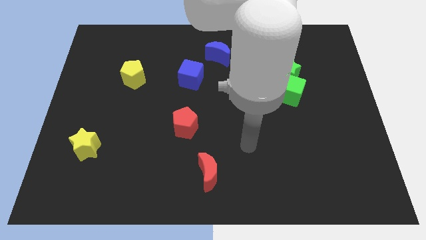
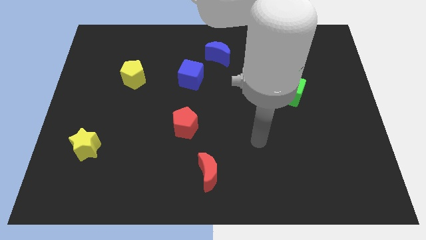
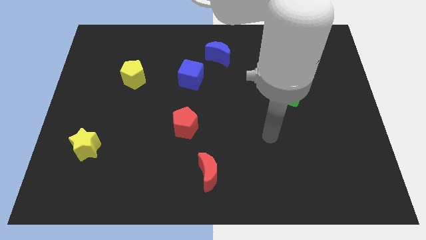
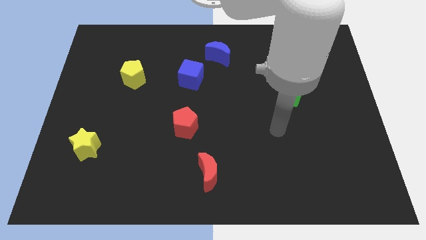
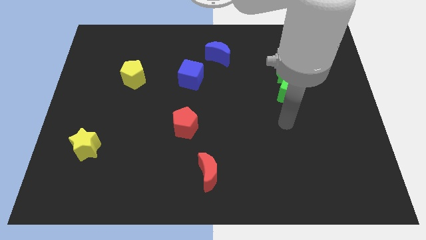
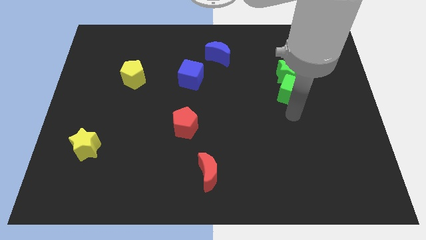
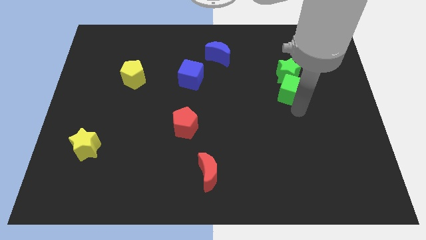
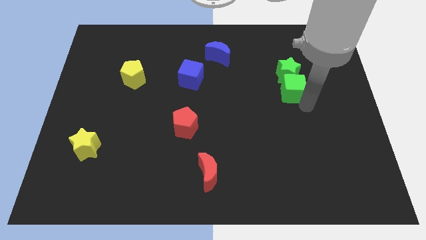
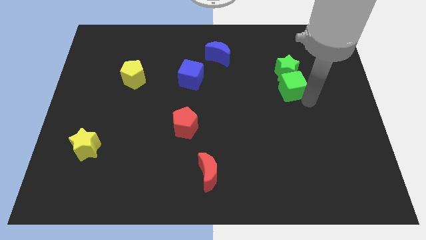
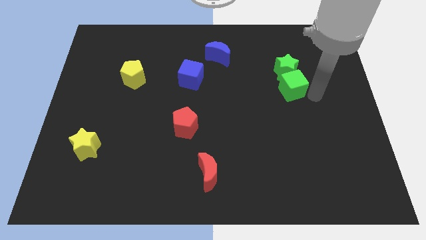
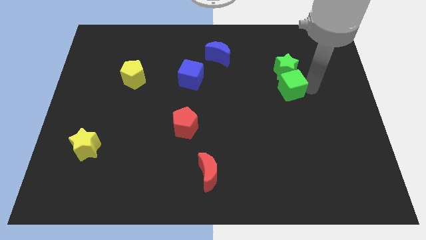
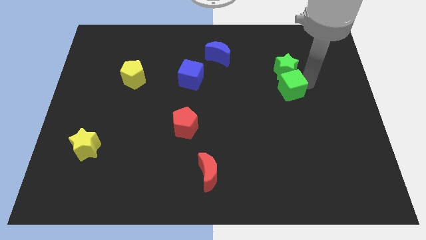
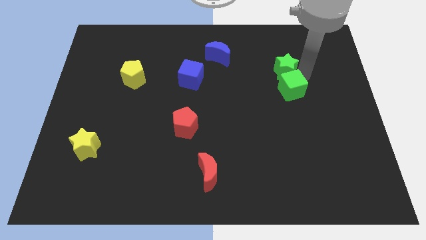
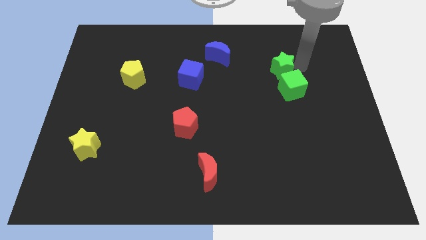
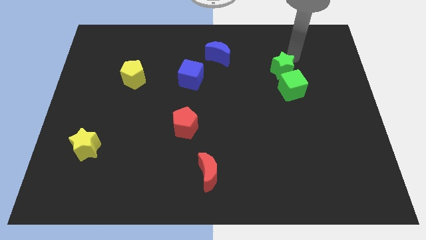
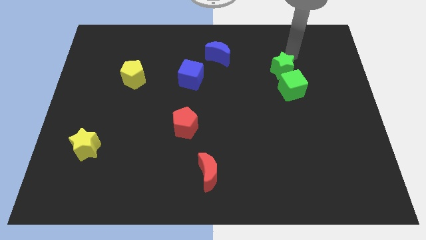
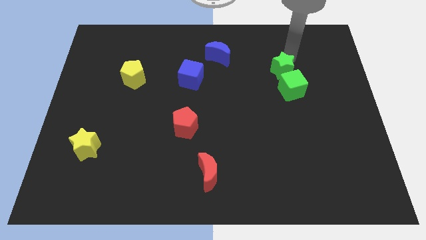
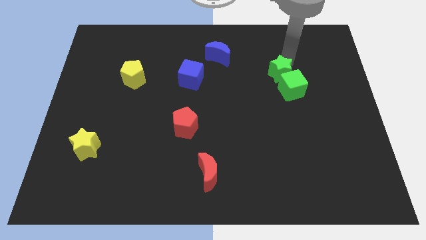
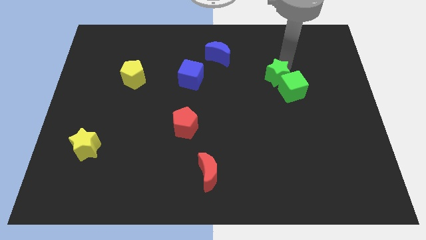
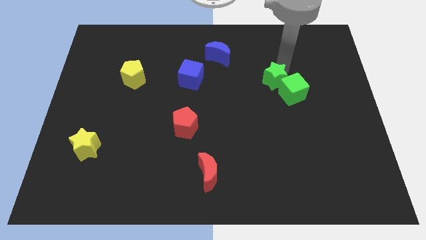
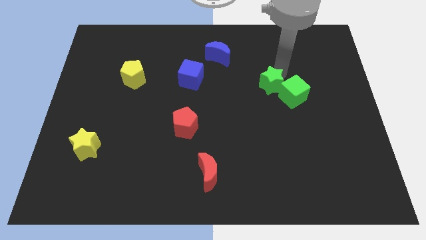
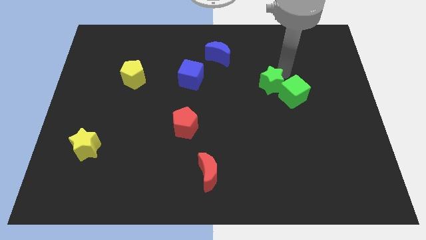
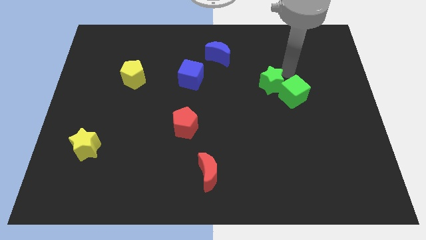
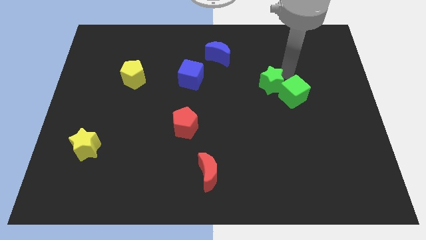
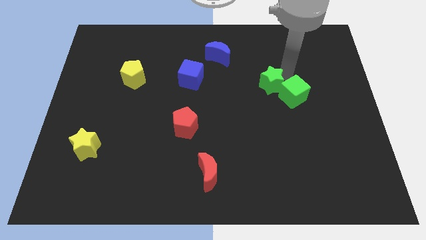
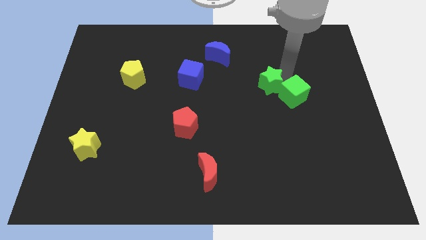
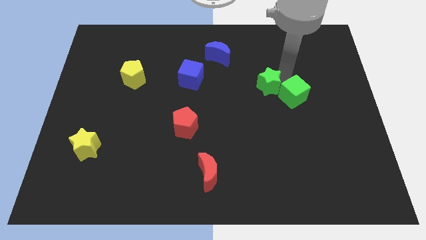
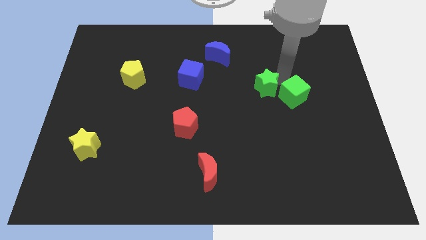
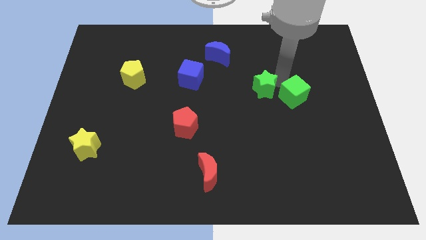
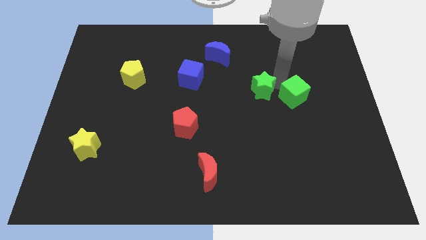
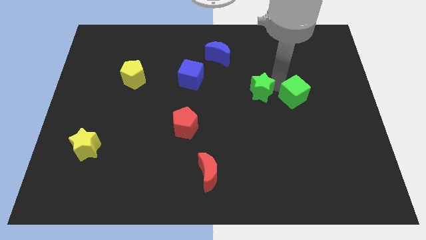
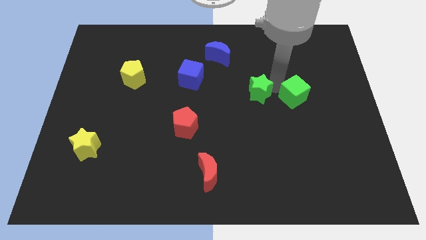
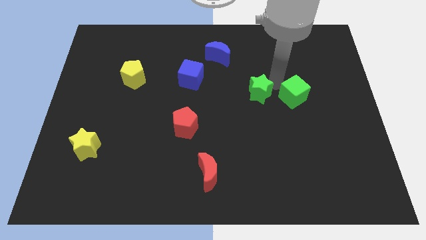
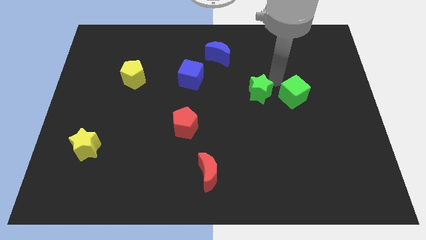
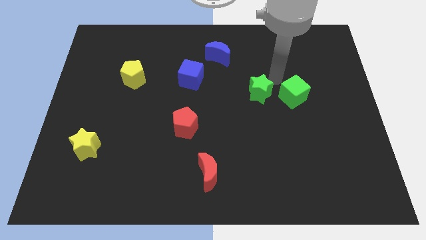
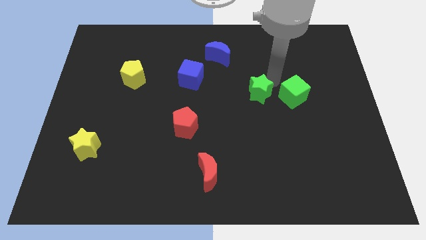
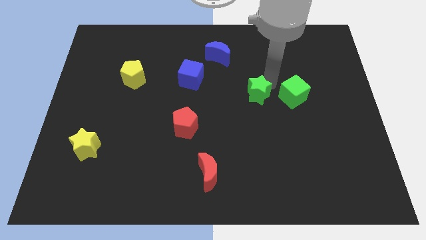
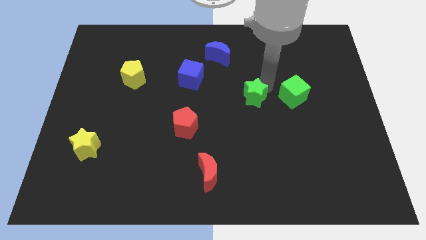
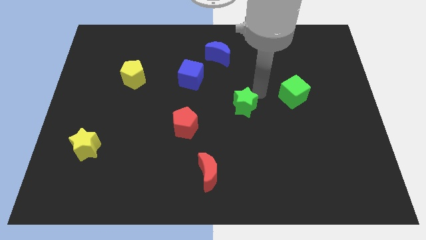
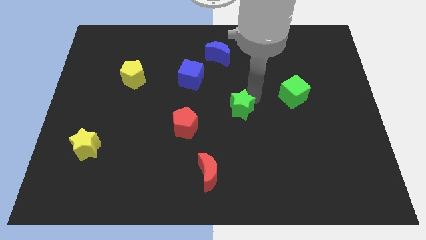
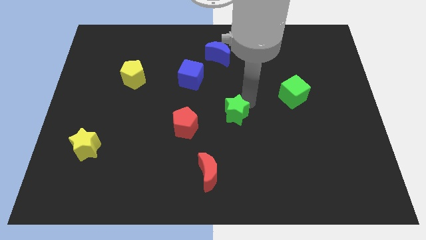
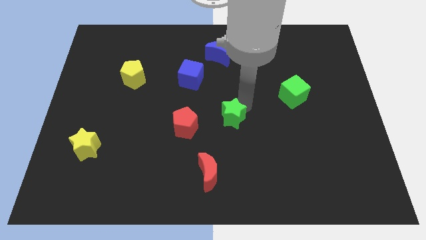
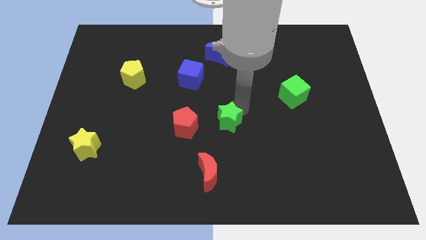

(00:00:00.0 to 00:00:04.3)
move the green star down and to the left diagonally

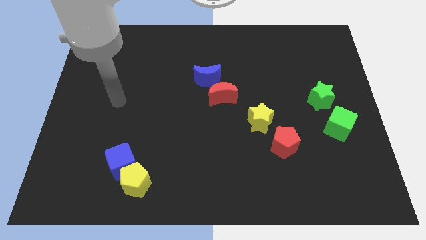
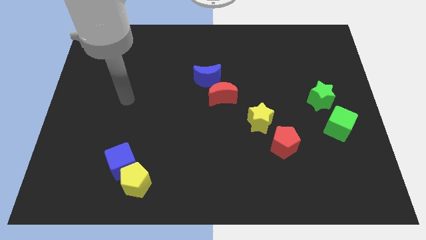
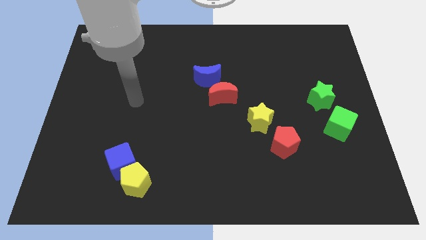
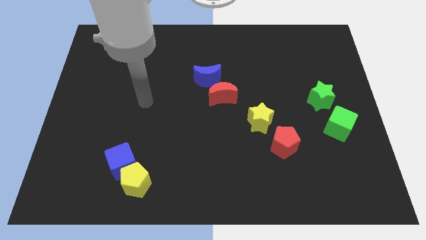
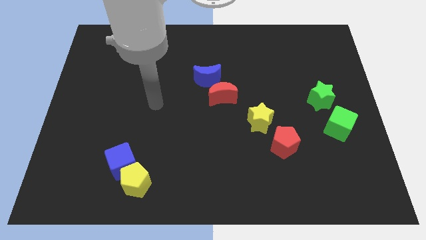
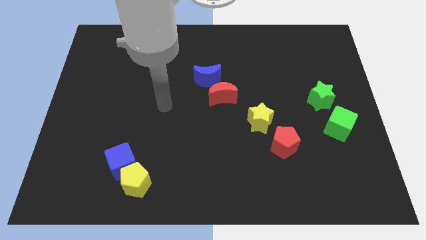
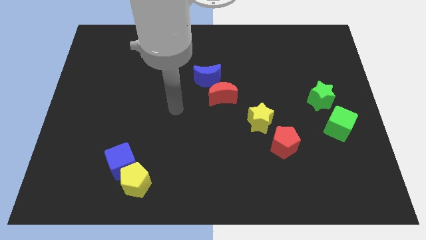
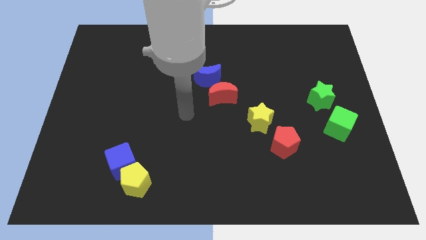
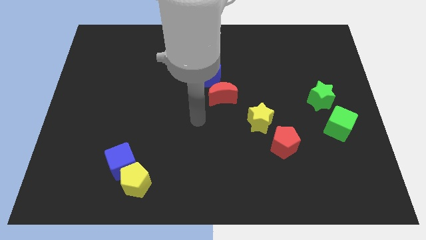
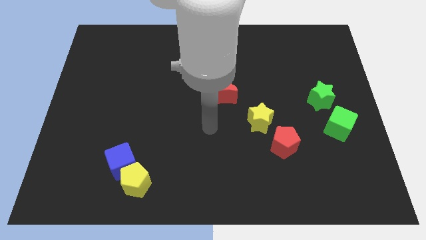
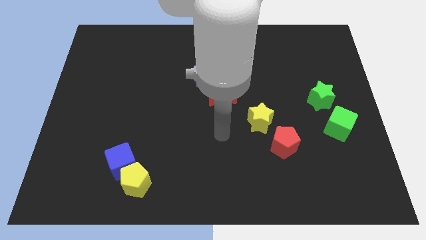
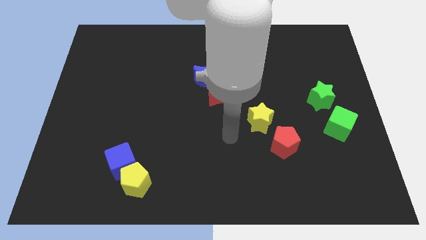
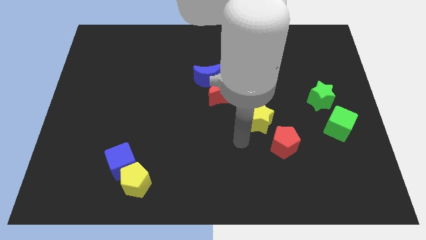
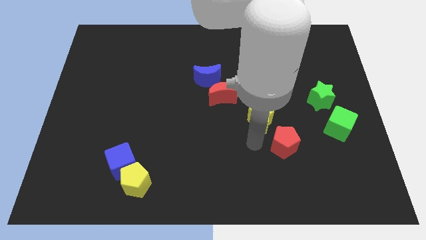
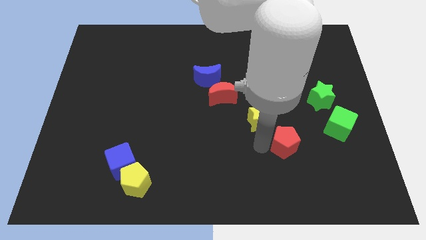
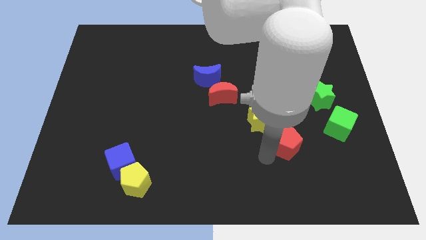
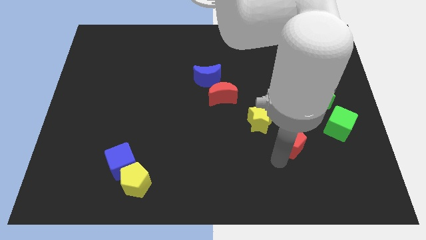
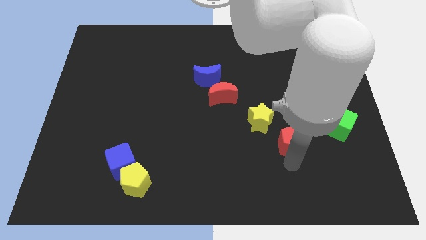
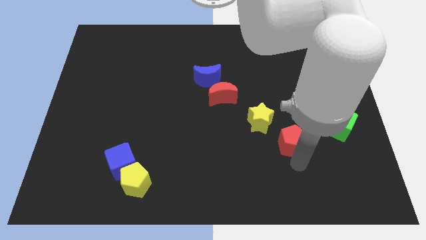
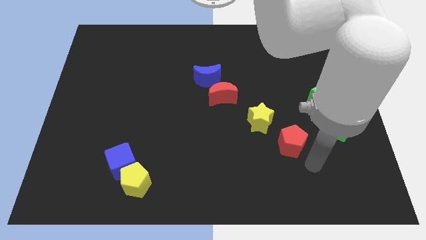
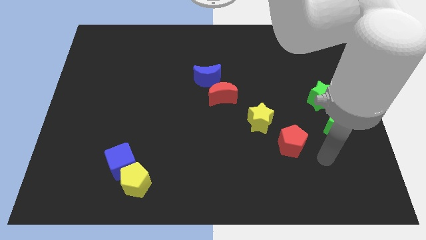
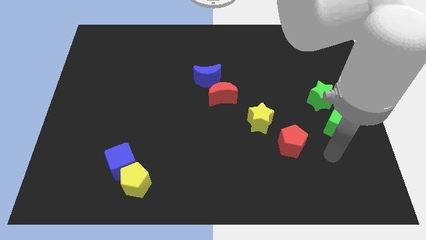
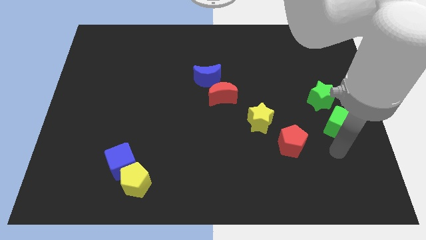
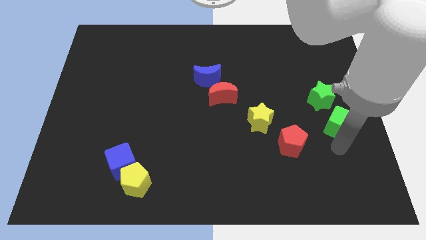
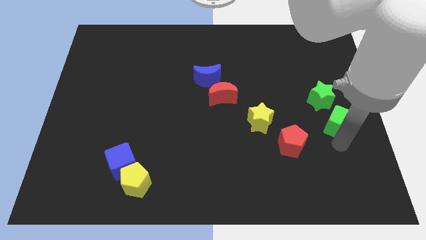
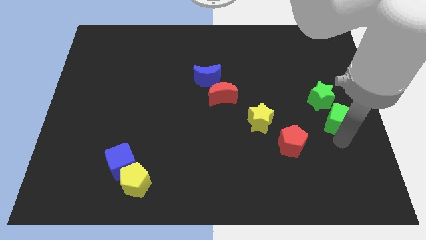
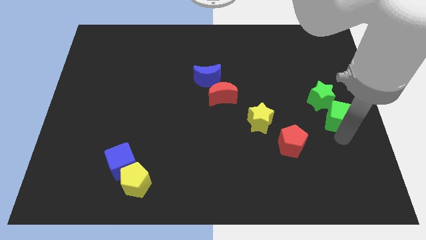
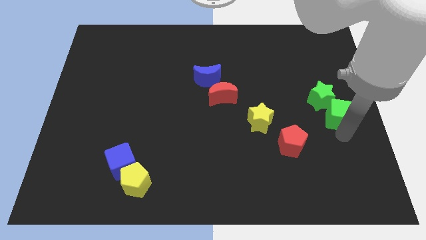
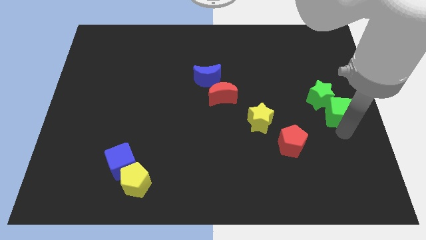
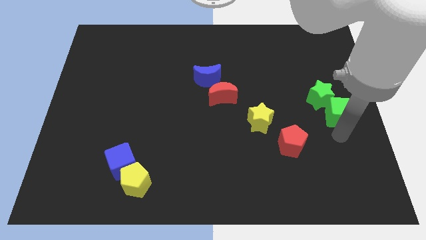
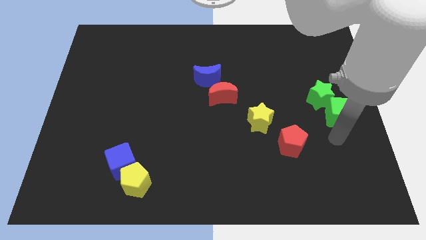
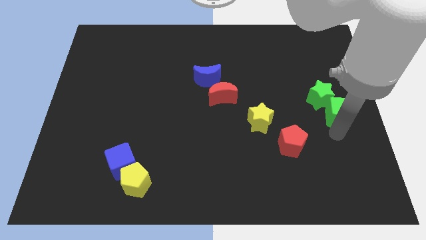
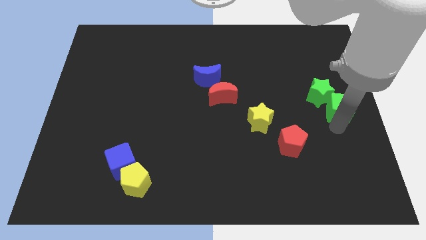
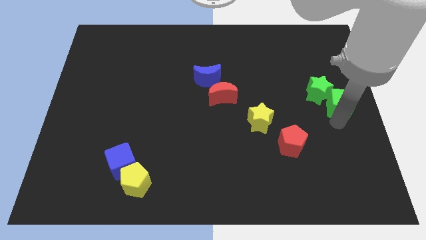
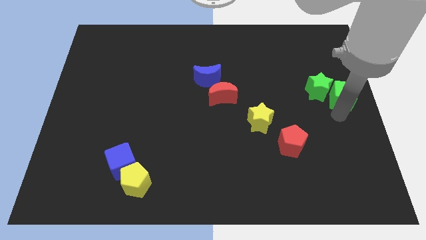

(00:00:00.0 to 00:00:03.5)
move the green cube a bit upwards
